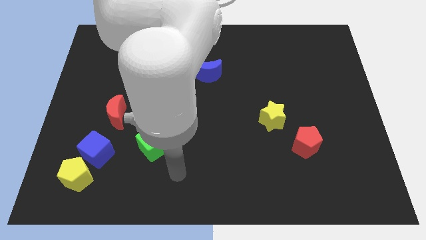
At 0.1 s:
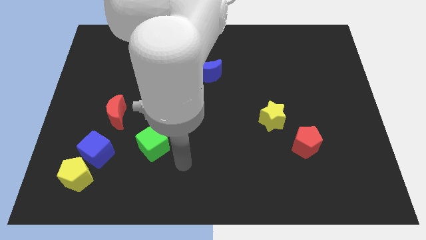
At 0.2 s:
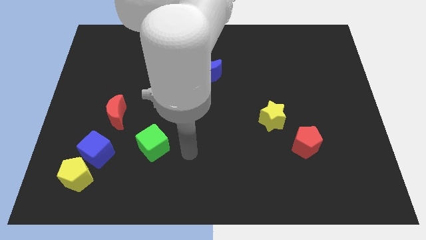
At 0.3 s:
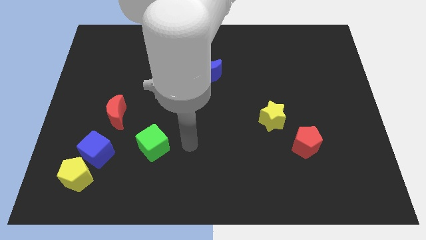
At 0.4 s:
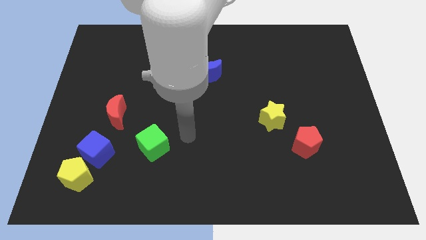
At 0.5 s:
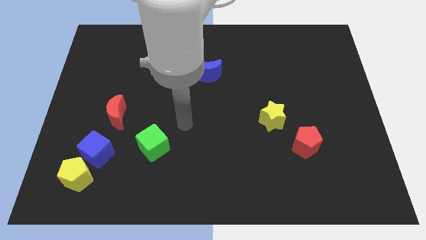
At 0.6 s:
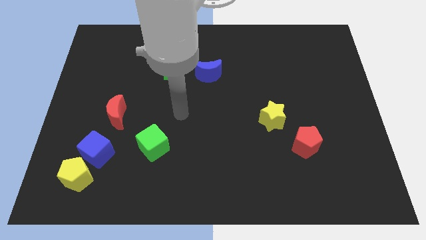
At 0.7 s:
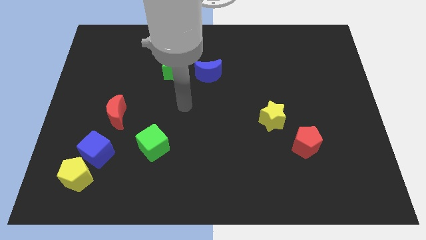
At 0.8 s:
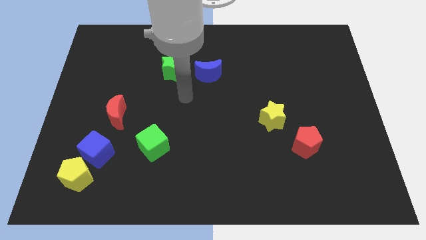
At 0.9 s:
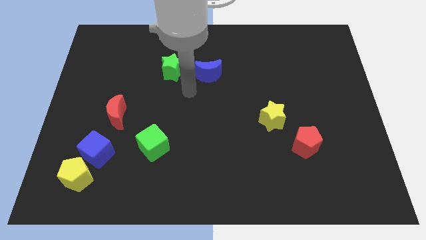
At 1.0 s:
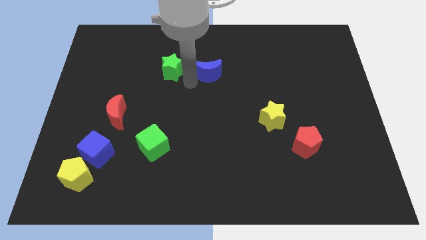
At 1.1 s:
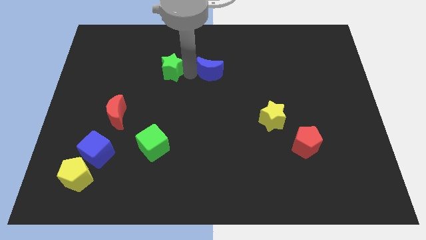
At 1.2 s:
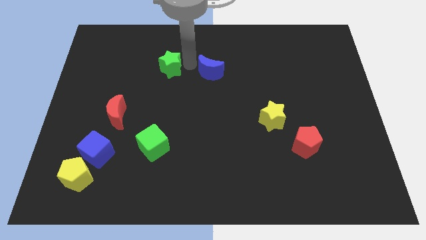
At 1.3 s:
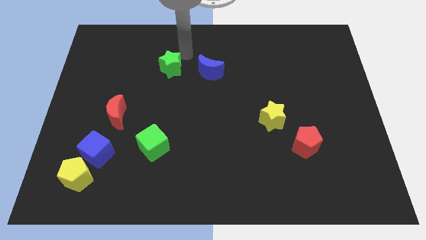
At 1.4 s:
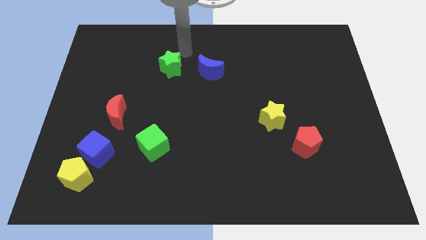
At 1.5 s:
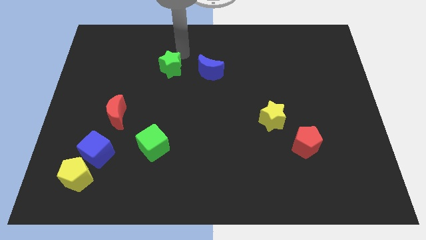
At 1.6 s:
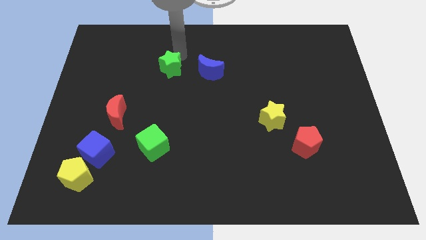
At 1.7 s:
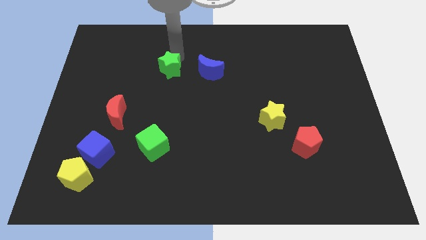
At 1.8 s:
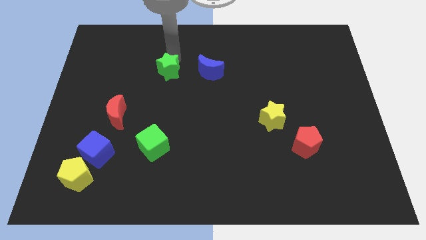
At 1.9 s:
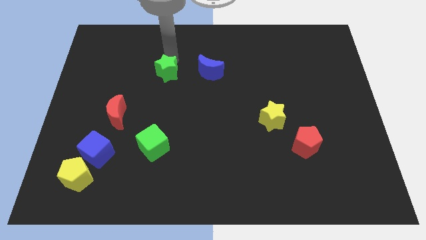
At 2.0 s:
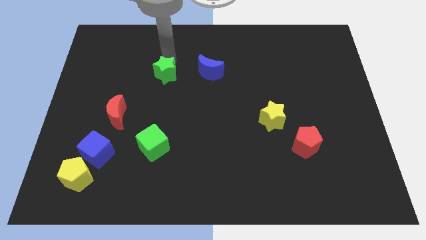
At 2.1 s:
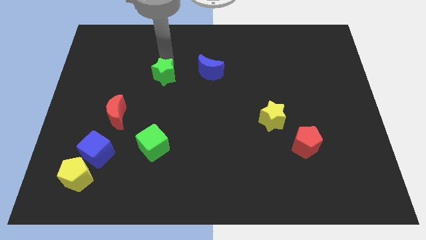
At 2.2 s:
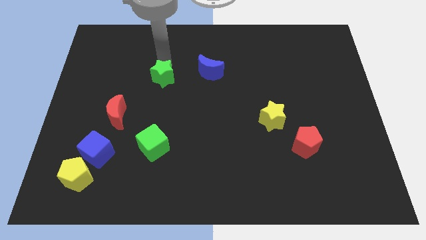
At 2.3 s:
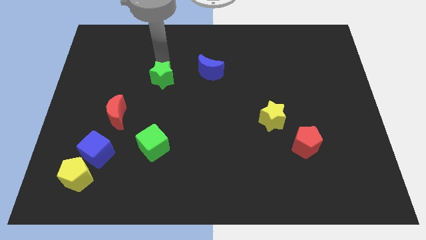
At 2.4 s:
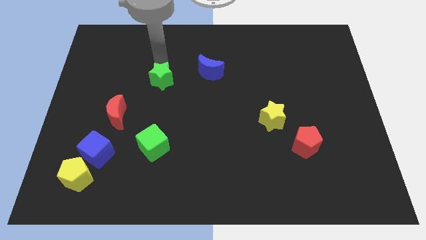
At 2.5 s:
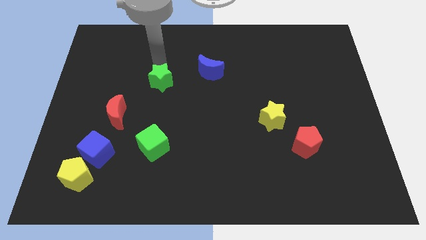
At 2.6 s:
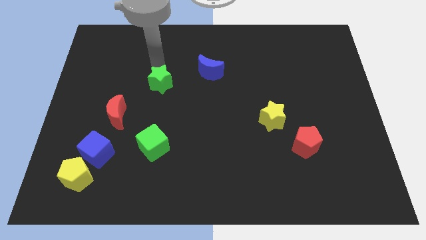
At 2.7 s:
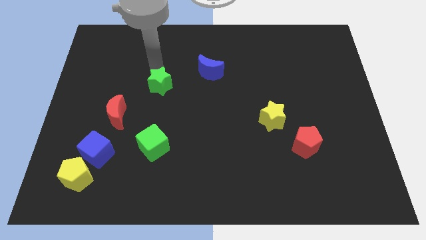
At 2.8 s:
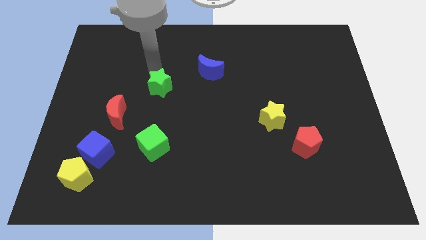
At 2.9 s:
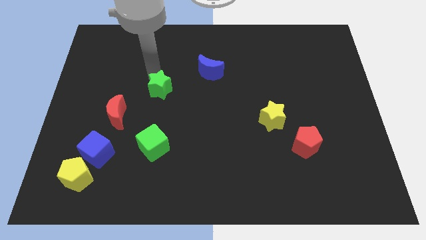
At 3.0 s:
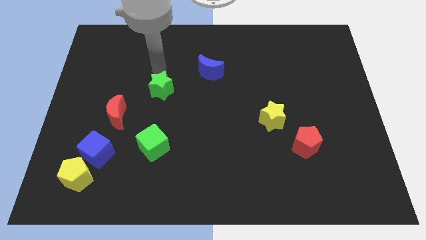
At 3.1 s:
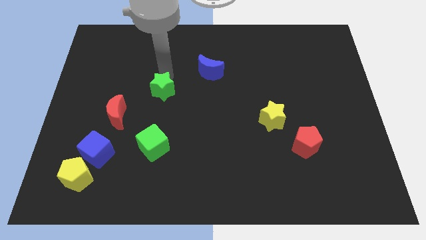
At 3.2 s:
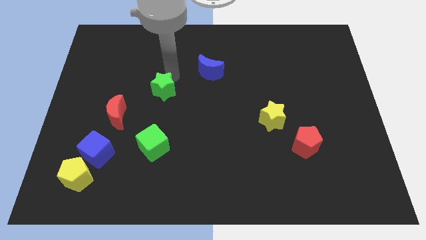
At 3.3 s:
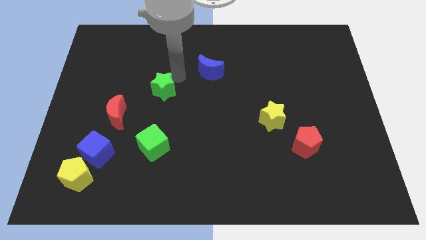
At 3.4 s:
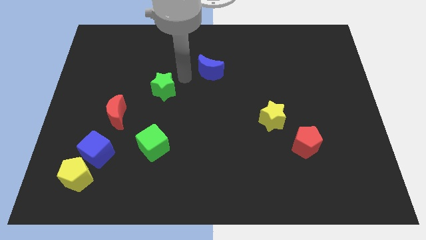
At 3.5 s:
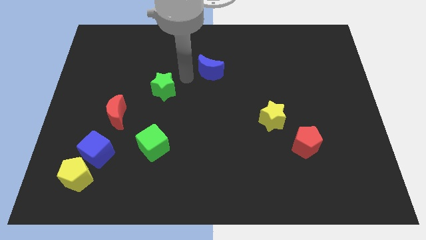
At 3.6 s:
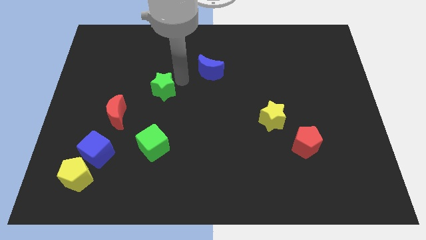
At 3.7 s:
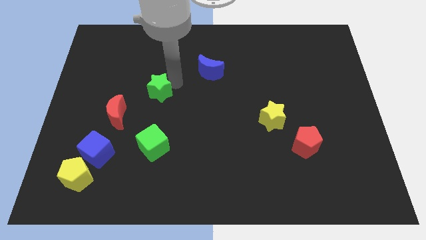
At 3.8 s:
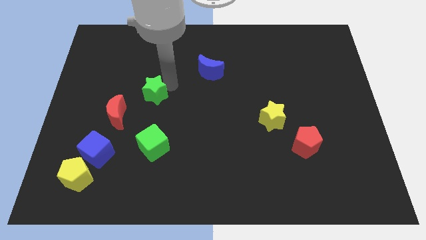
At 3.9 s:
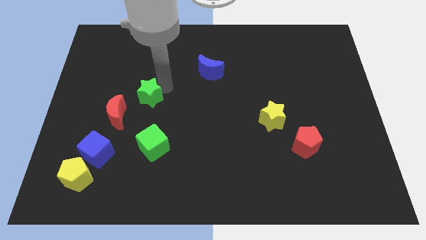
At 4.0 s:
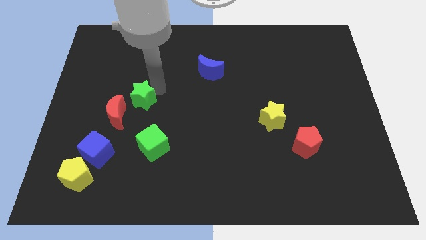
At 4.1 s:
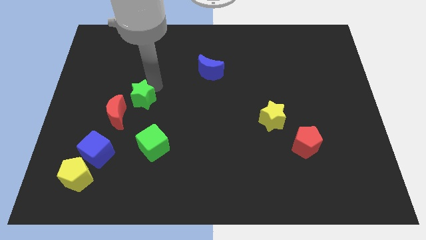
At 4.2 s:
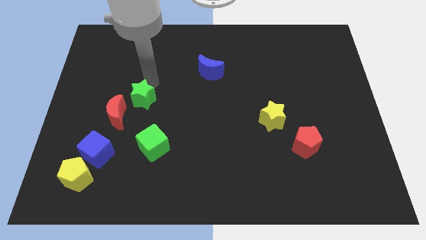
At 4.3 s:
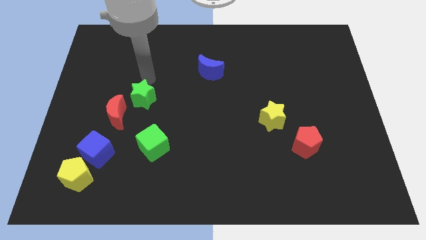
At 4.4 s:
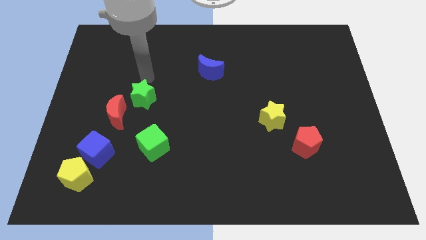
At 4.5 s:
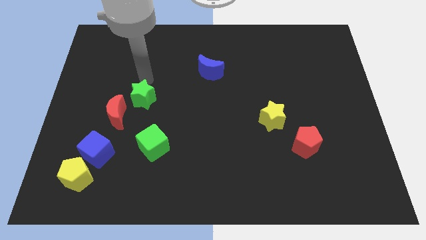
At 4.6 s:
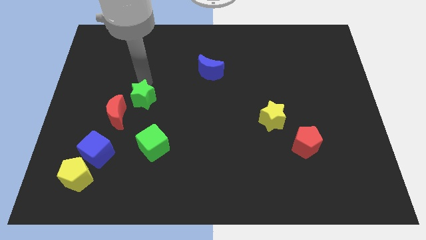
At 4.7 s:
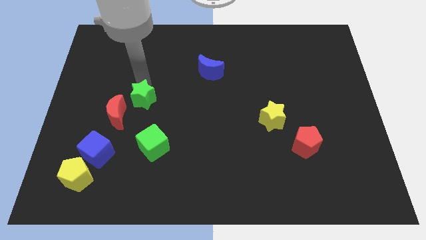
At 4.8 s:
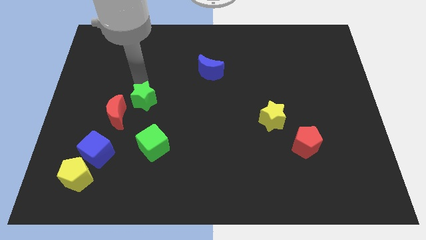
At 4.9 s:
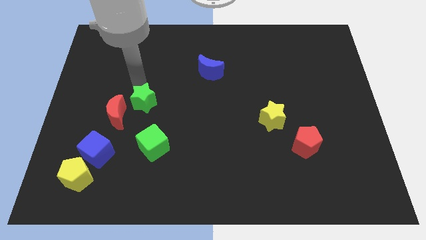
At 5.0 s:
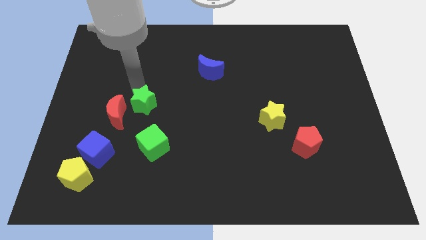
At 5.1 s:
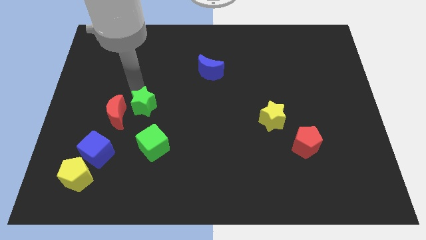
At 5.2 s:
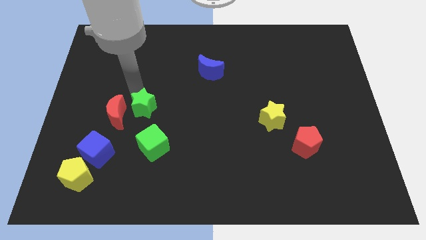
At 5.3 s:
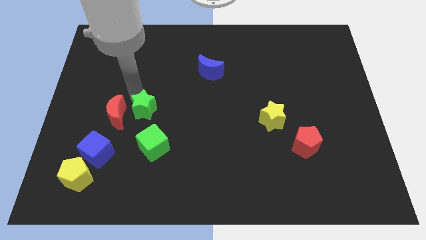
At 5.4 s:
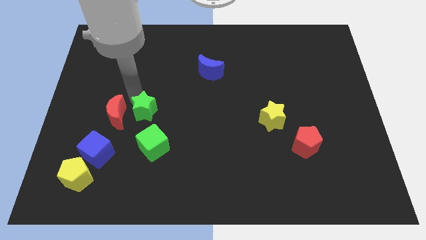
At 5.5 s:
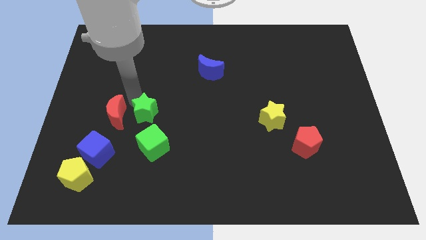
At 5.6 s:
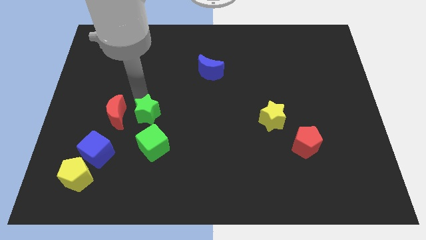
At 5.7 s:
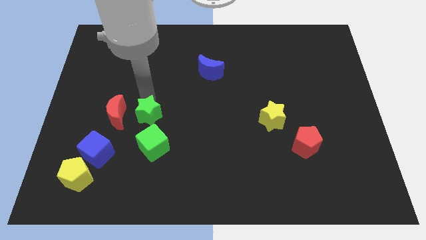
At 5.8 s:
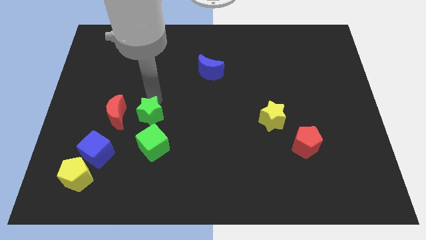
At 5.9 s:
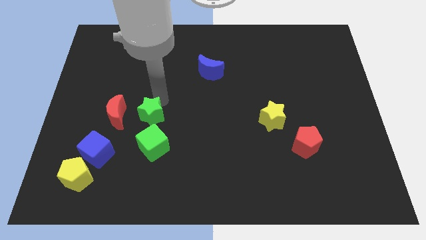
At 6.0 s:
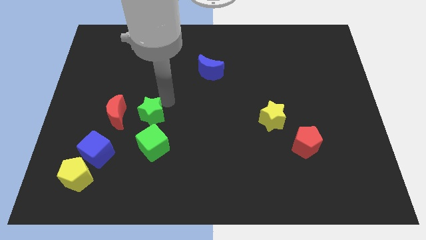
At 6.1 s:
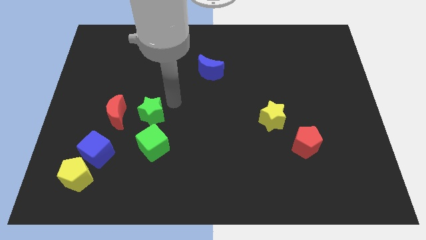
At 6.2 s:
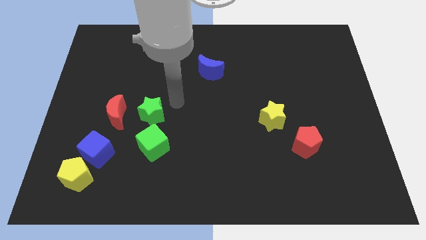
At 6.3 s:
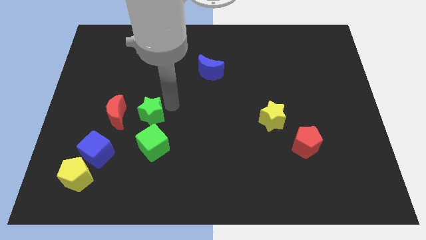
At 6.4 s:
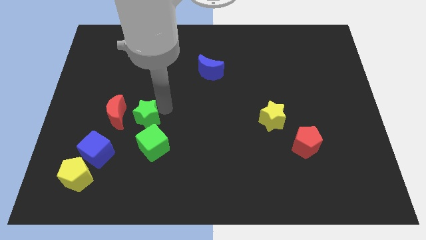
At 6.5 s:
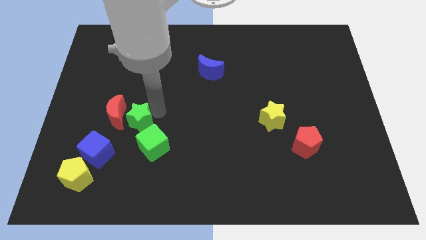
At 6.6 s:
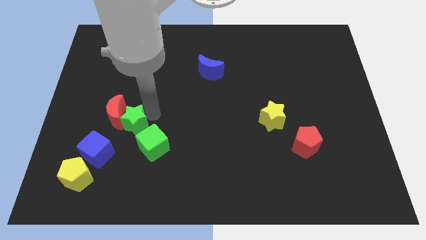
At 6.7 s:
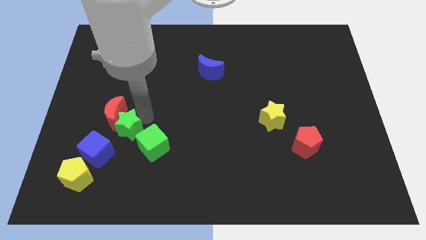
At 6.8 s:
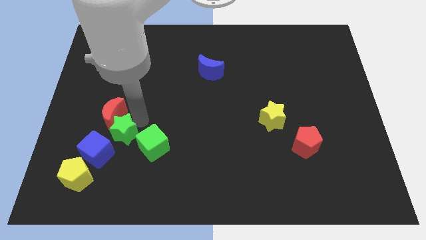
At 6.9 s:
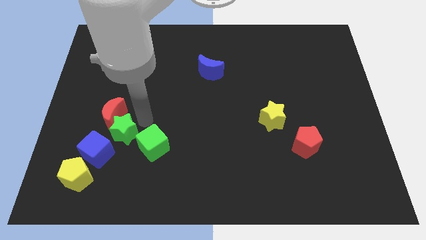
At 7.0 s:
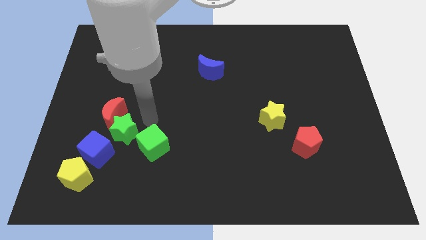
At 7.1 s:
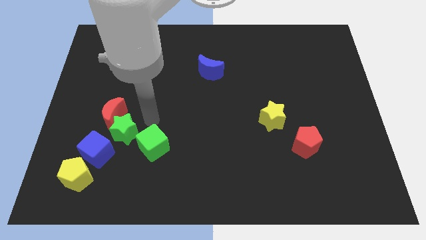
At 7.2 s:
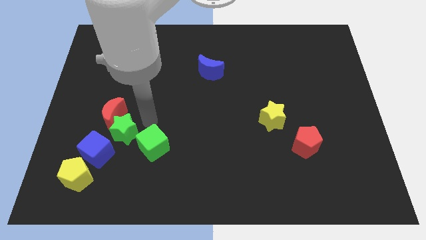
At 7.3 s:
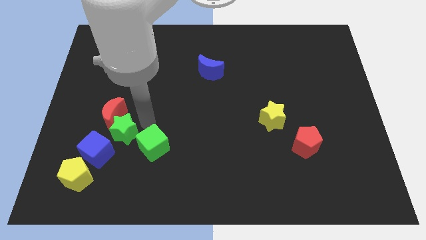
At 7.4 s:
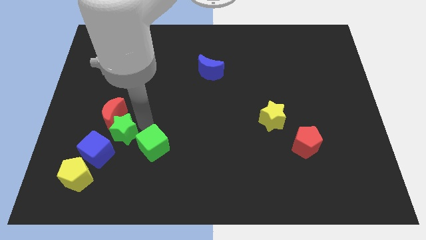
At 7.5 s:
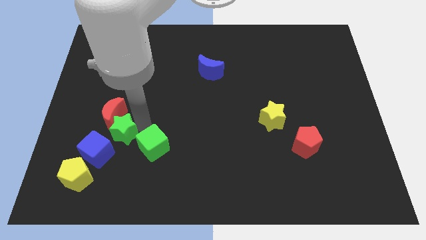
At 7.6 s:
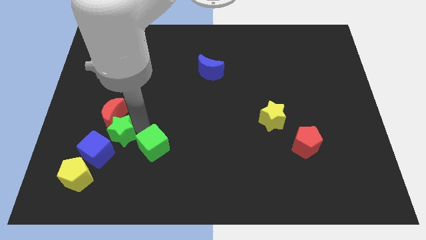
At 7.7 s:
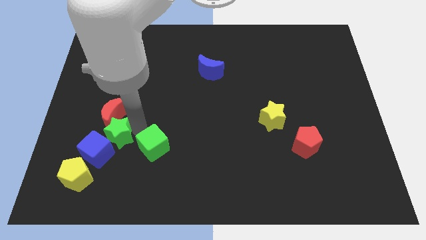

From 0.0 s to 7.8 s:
slide the green star next to the blue cube
